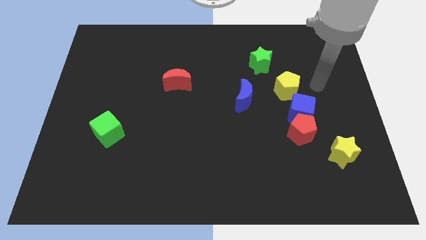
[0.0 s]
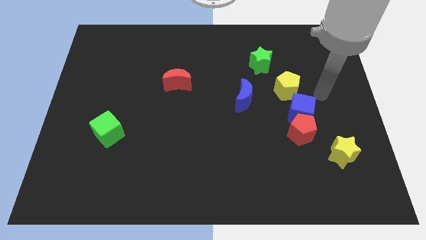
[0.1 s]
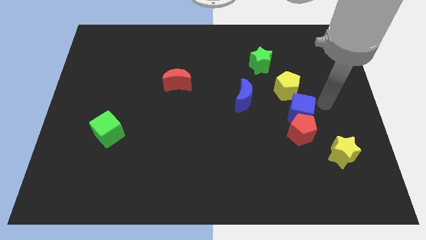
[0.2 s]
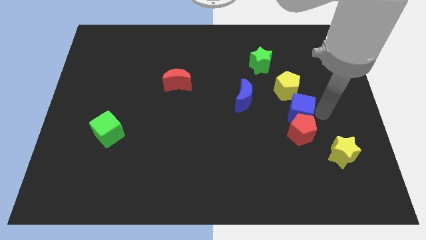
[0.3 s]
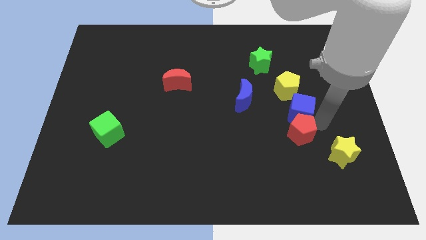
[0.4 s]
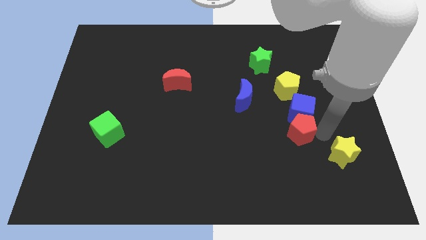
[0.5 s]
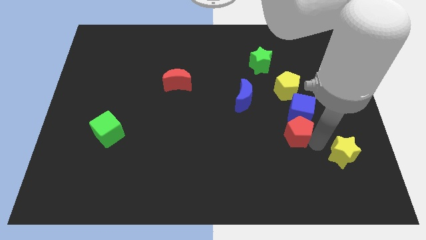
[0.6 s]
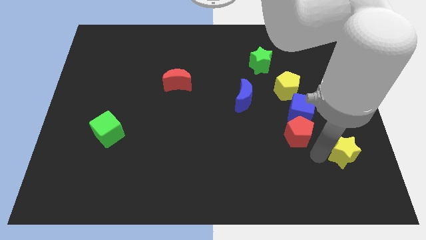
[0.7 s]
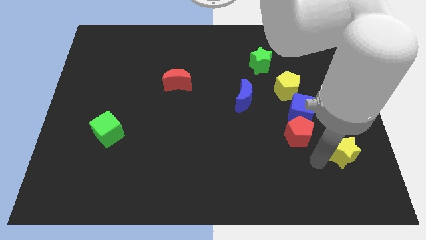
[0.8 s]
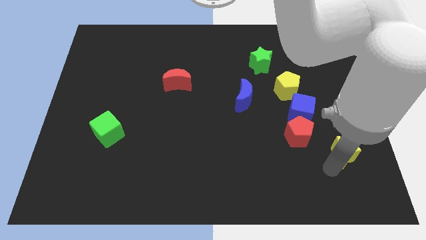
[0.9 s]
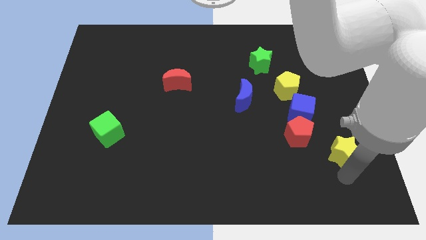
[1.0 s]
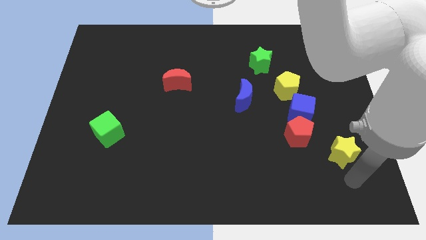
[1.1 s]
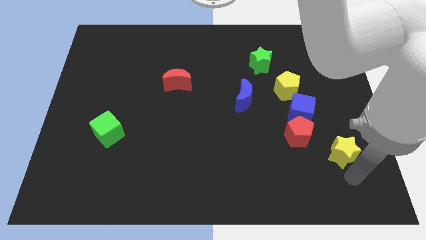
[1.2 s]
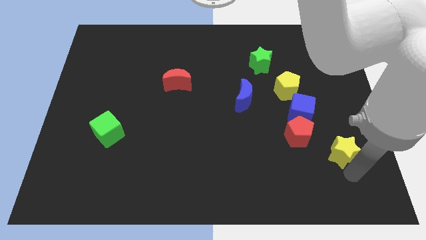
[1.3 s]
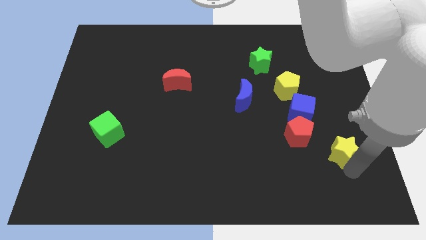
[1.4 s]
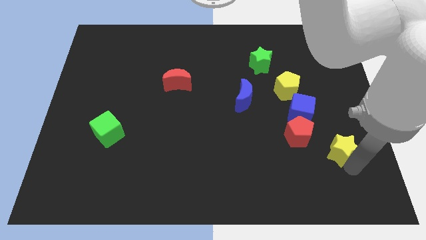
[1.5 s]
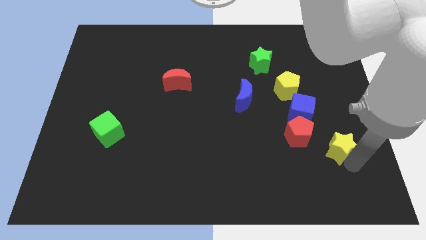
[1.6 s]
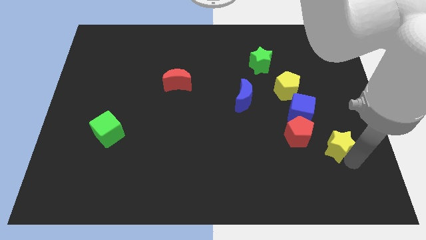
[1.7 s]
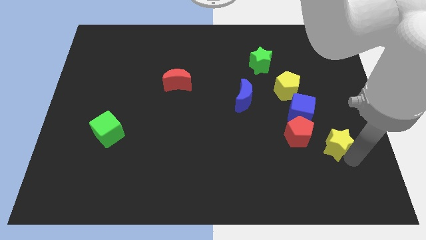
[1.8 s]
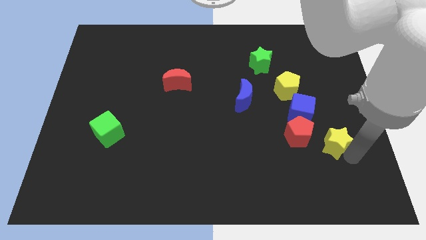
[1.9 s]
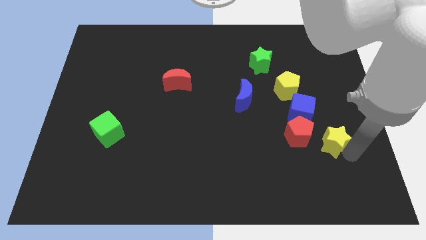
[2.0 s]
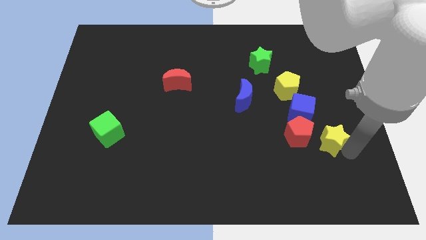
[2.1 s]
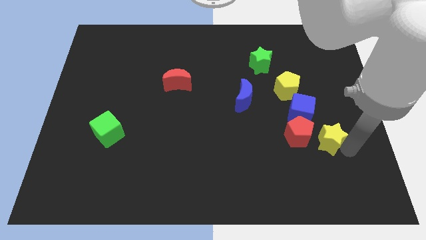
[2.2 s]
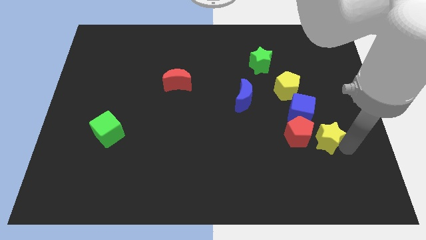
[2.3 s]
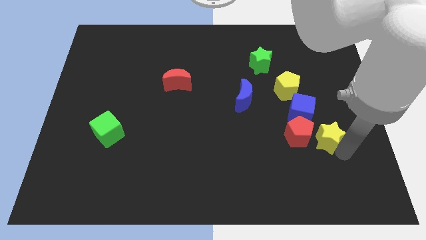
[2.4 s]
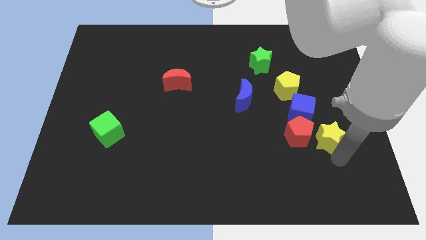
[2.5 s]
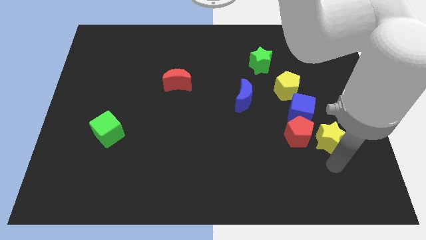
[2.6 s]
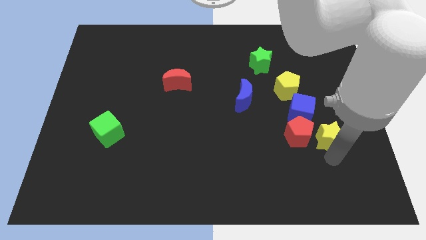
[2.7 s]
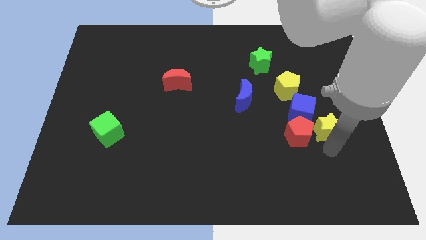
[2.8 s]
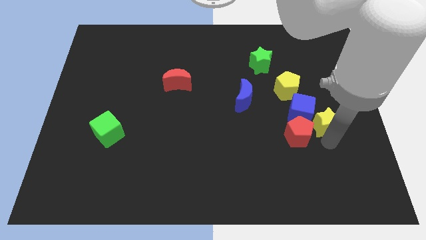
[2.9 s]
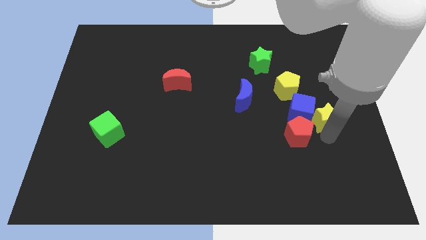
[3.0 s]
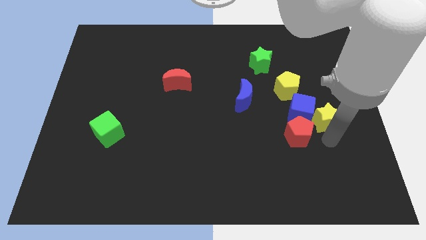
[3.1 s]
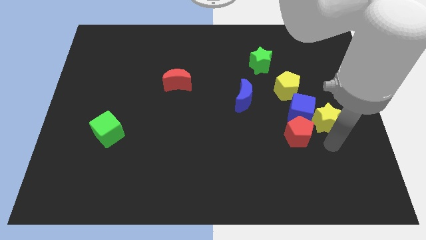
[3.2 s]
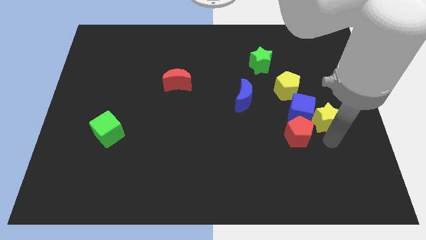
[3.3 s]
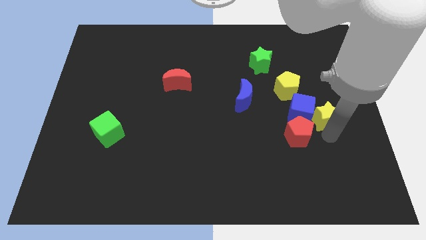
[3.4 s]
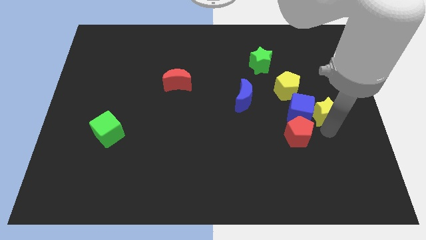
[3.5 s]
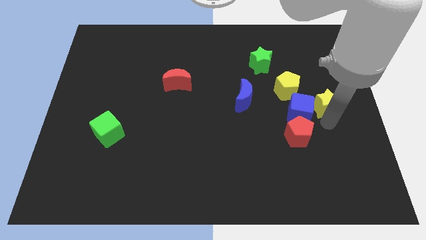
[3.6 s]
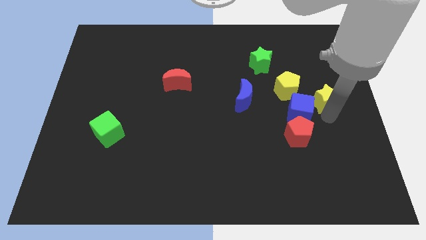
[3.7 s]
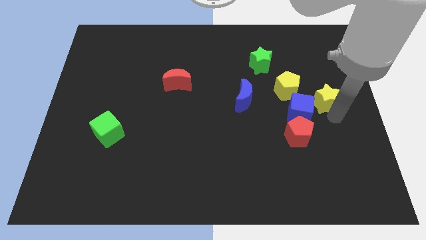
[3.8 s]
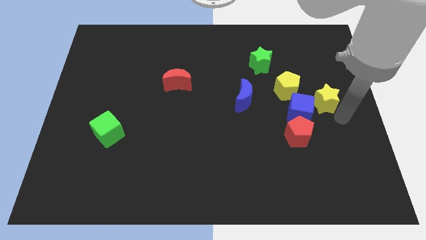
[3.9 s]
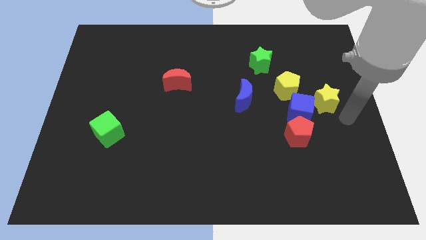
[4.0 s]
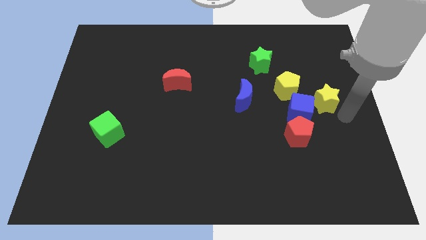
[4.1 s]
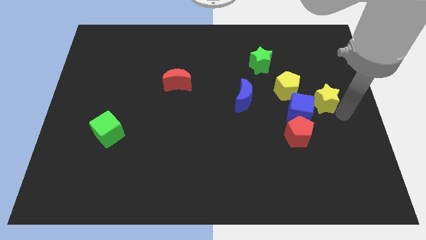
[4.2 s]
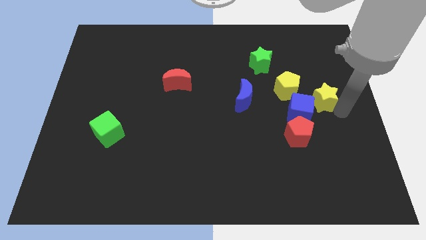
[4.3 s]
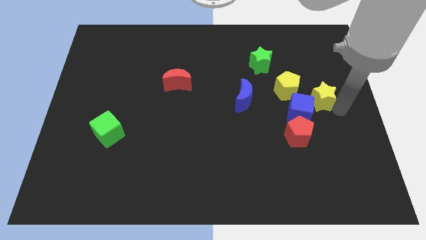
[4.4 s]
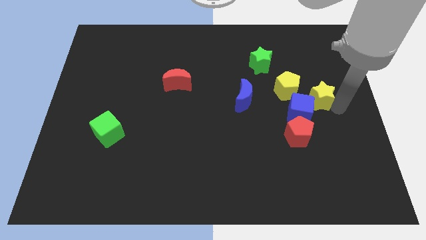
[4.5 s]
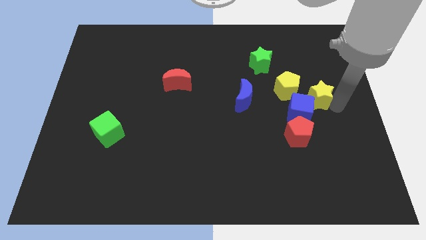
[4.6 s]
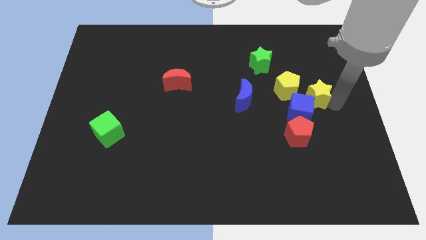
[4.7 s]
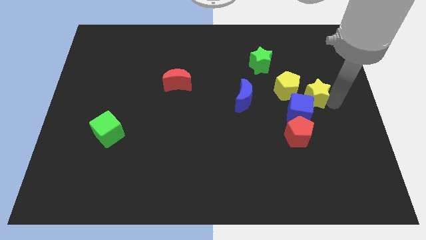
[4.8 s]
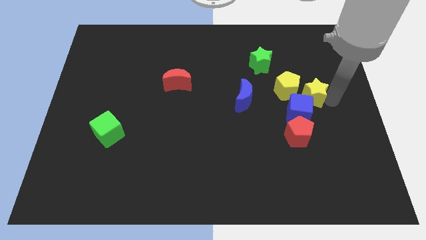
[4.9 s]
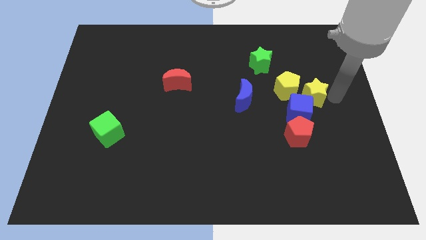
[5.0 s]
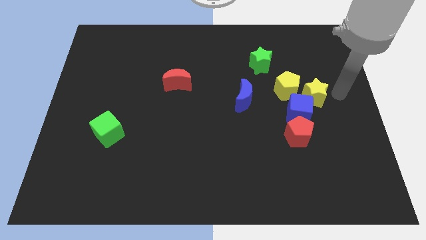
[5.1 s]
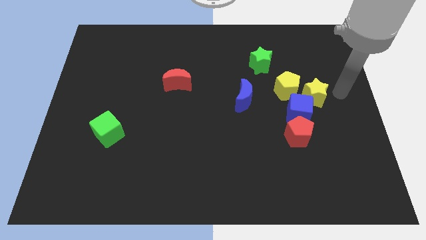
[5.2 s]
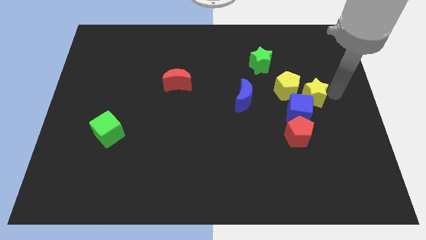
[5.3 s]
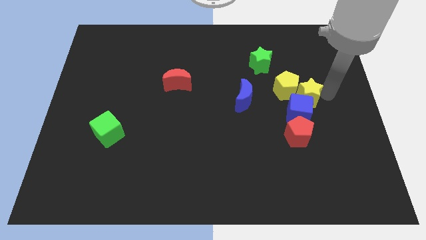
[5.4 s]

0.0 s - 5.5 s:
move the yellow star just right of the blue moon

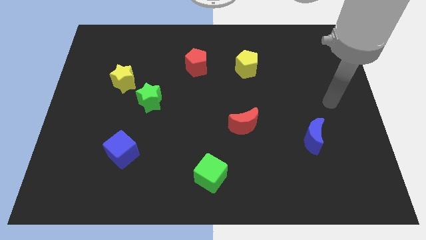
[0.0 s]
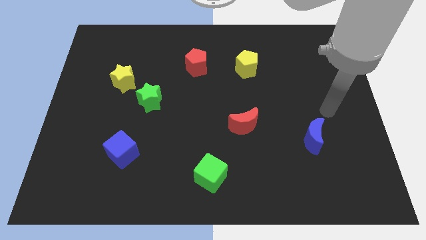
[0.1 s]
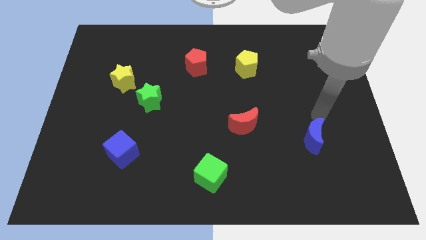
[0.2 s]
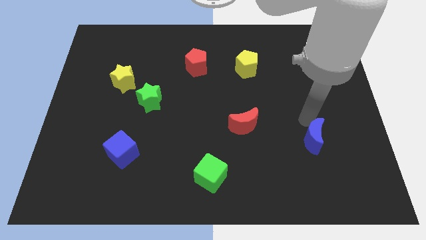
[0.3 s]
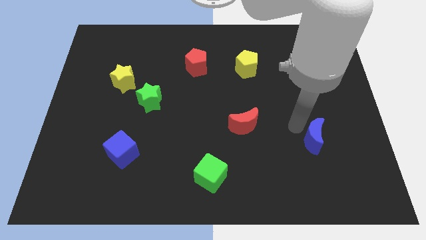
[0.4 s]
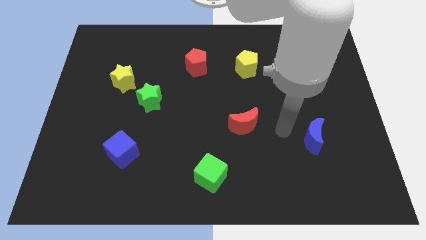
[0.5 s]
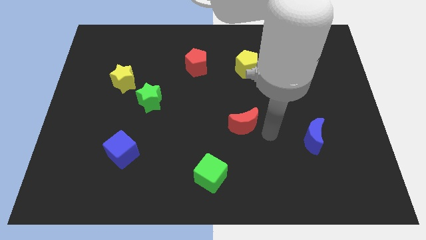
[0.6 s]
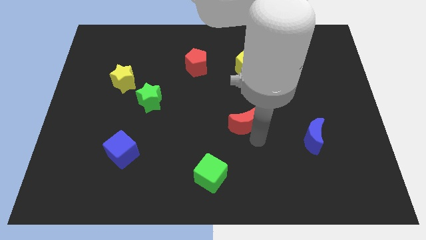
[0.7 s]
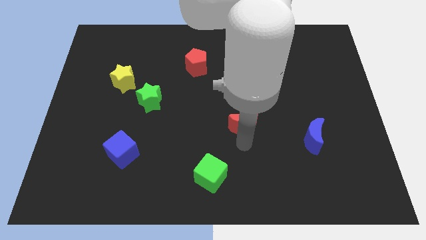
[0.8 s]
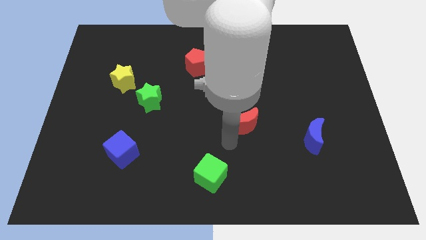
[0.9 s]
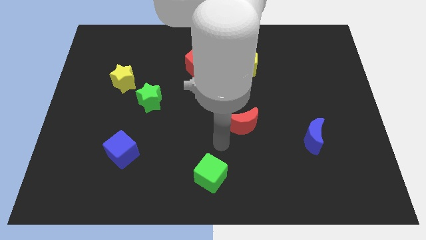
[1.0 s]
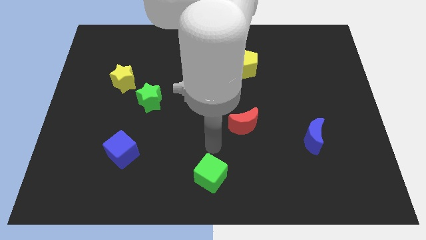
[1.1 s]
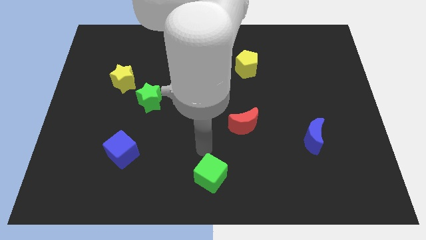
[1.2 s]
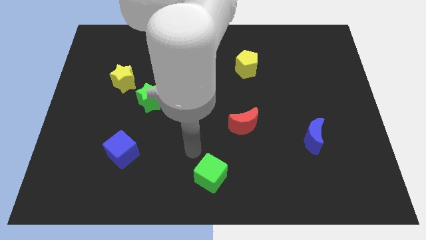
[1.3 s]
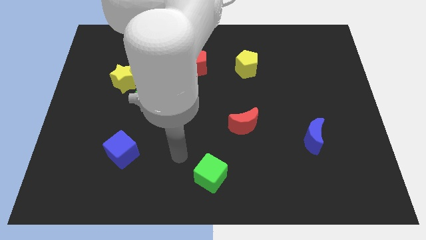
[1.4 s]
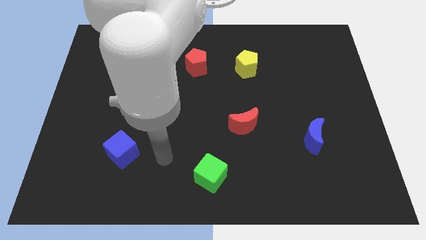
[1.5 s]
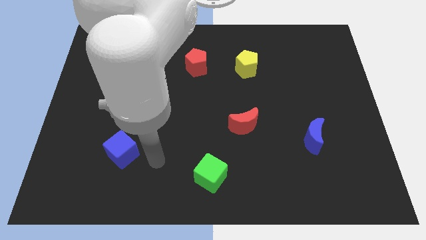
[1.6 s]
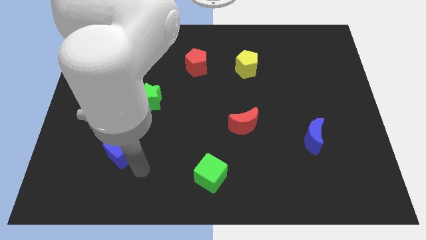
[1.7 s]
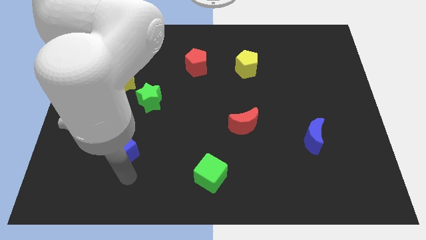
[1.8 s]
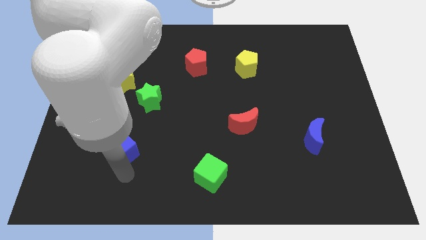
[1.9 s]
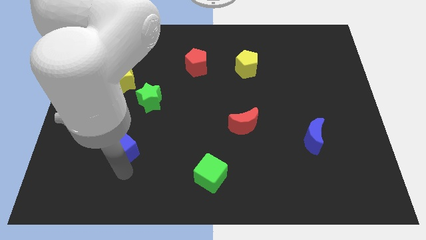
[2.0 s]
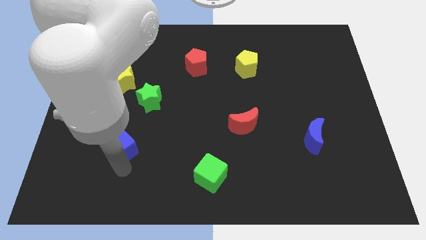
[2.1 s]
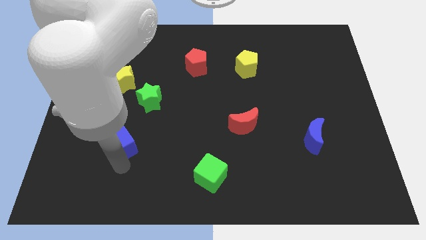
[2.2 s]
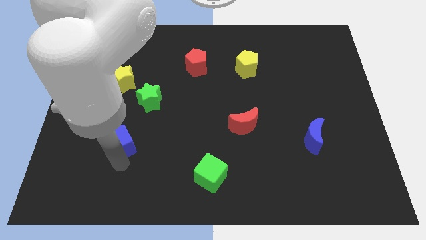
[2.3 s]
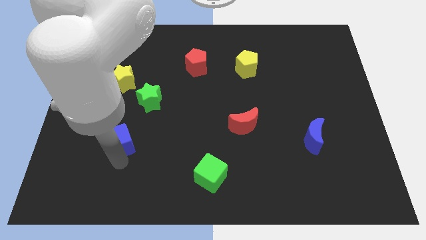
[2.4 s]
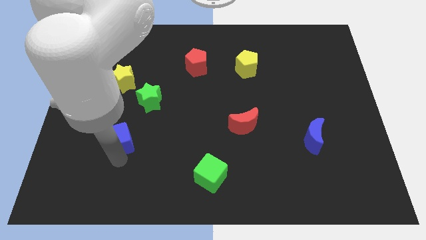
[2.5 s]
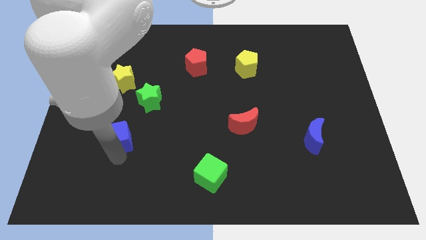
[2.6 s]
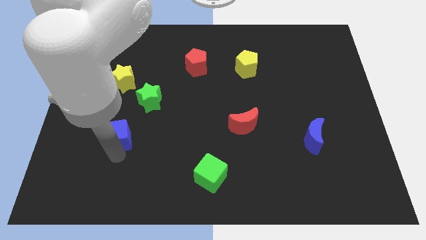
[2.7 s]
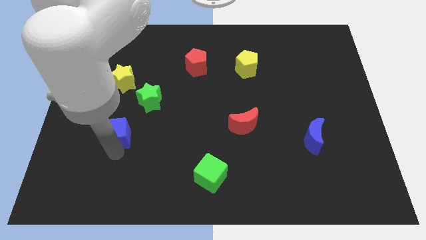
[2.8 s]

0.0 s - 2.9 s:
move the blue cube to the bottom of the yellow star

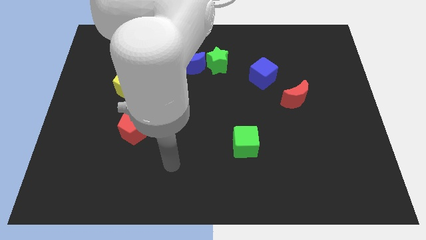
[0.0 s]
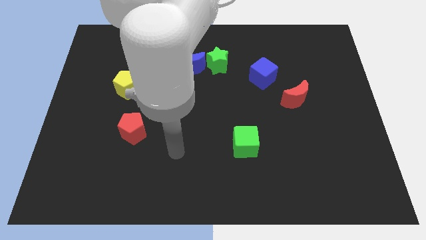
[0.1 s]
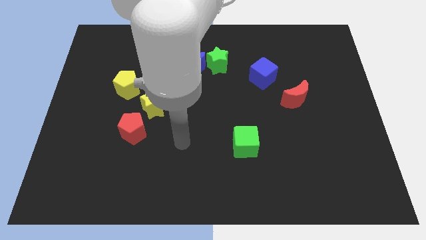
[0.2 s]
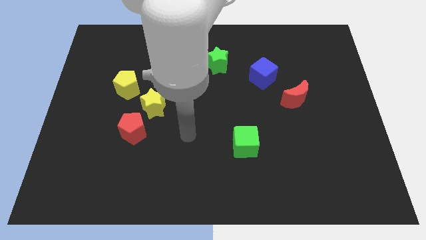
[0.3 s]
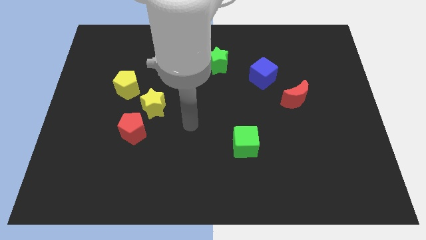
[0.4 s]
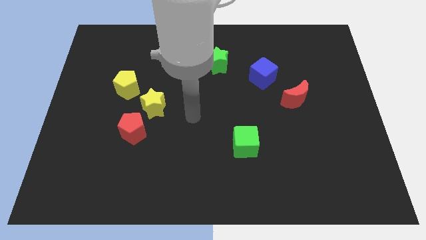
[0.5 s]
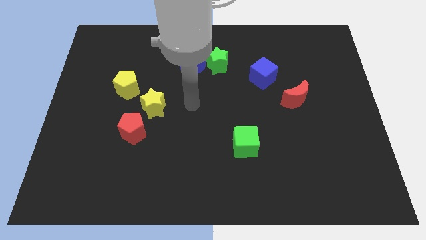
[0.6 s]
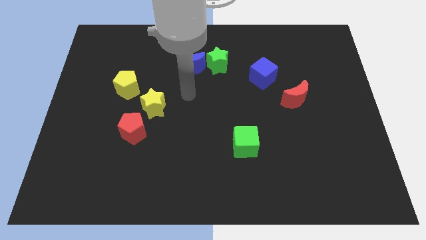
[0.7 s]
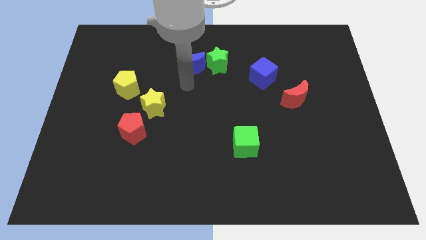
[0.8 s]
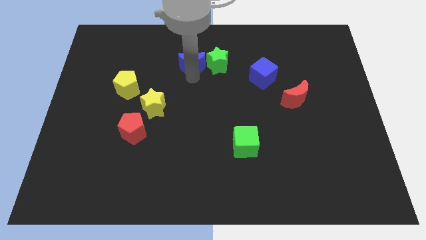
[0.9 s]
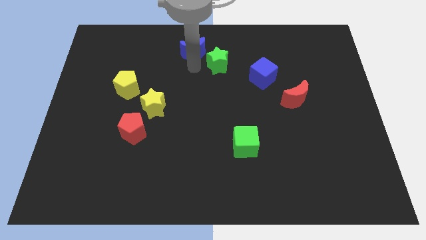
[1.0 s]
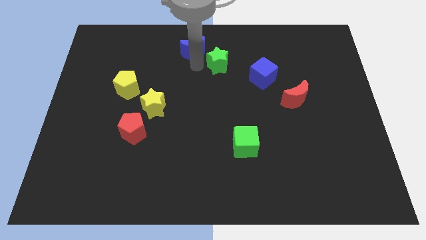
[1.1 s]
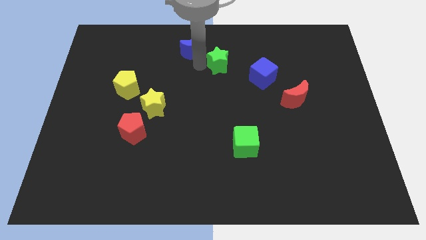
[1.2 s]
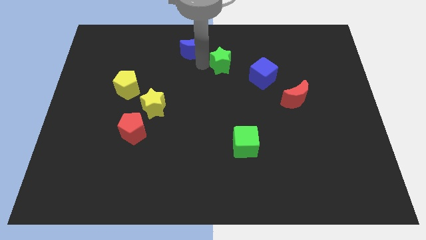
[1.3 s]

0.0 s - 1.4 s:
move the green star to the top left side of the blue cube
